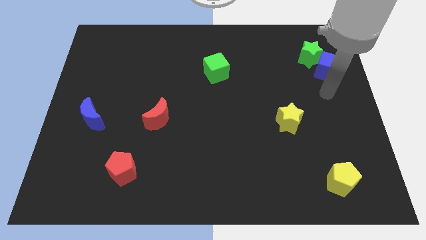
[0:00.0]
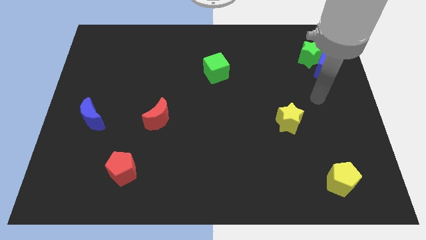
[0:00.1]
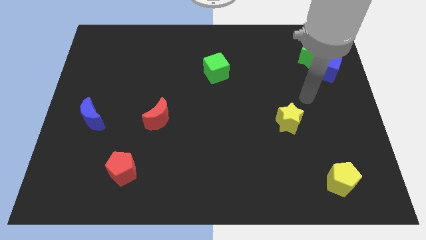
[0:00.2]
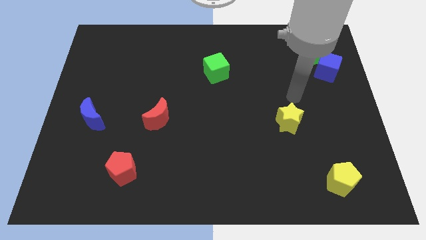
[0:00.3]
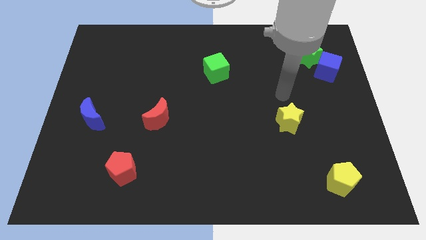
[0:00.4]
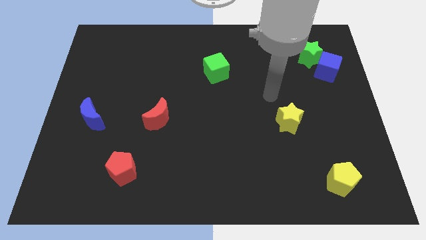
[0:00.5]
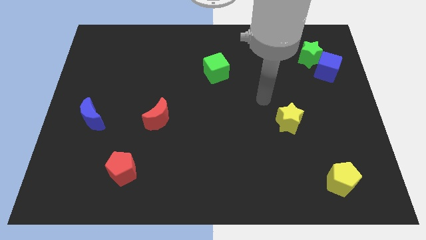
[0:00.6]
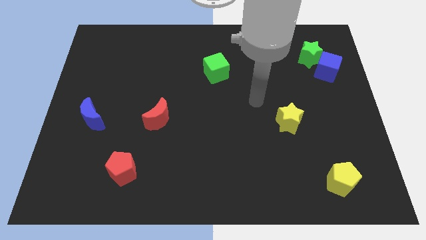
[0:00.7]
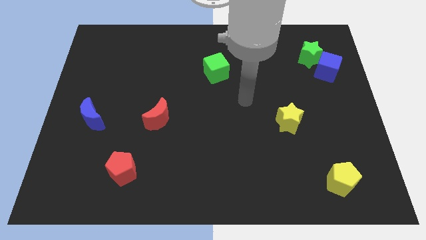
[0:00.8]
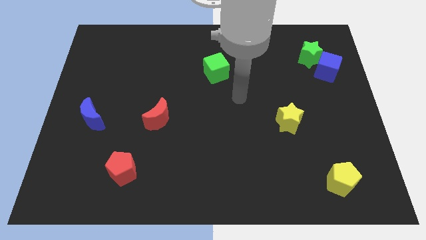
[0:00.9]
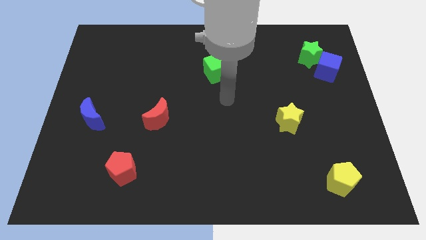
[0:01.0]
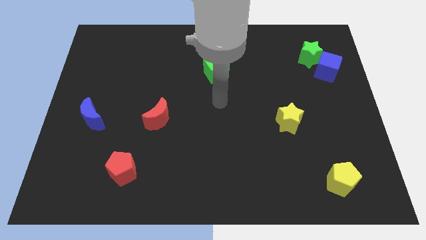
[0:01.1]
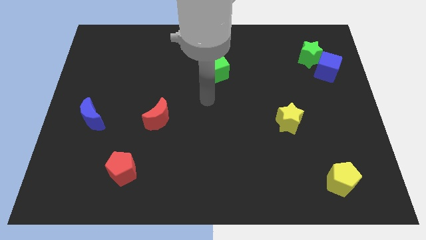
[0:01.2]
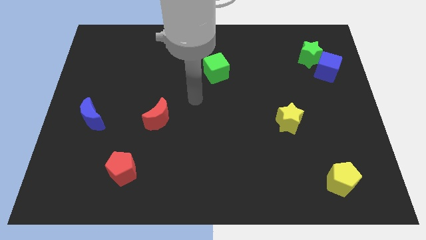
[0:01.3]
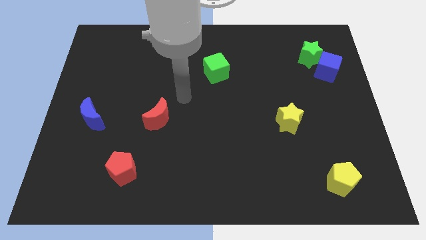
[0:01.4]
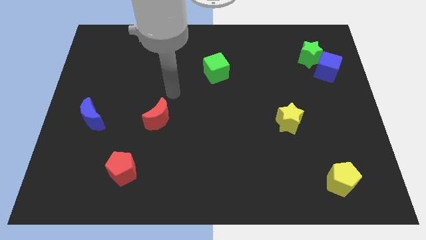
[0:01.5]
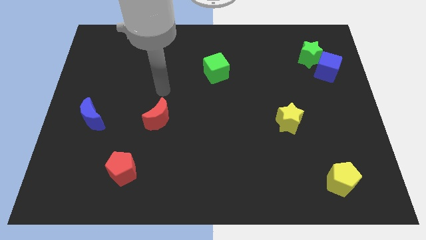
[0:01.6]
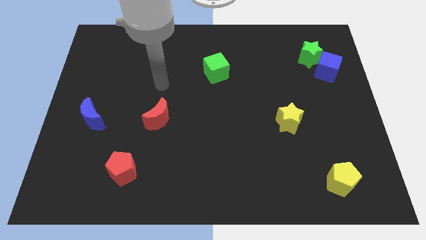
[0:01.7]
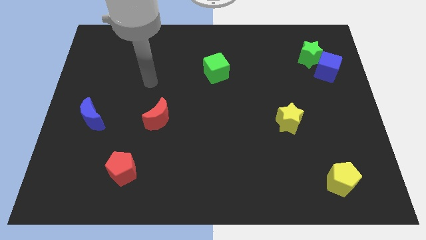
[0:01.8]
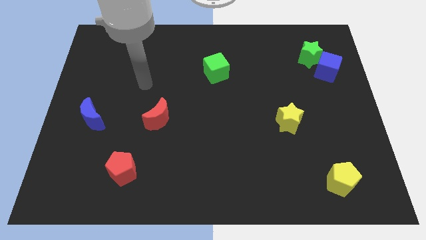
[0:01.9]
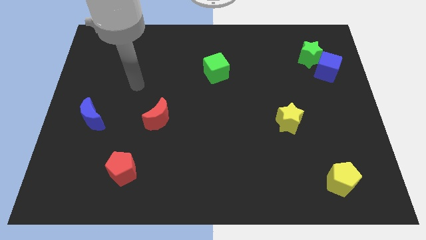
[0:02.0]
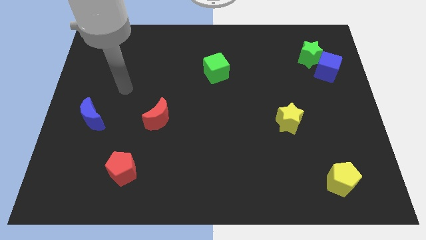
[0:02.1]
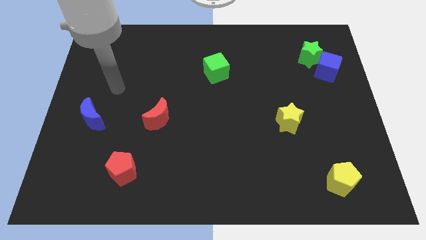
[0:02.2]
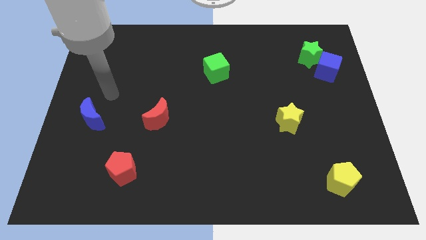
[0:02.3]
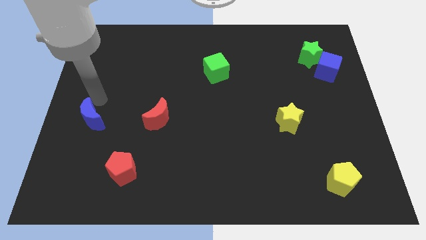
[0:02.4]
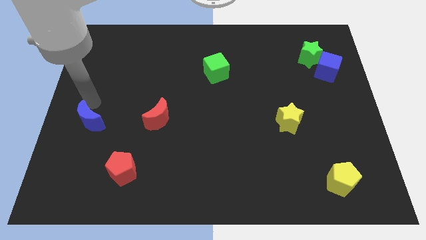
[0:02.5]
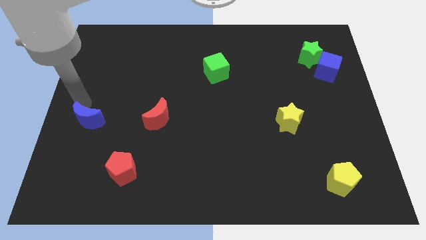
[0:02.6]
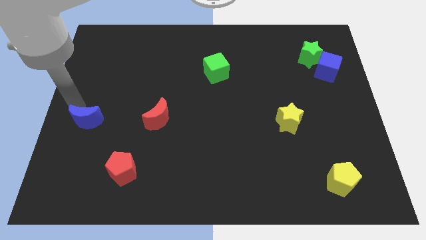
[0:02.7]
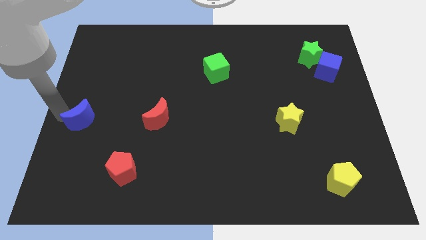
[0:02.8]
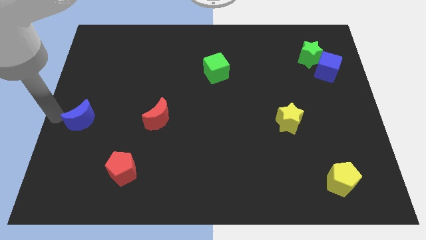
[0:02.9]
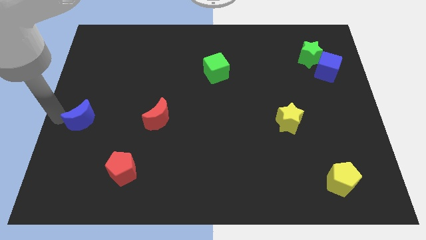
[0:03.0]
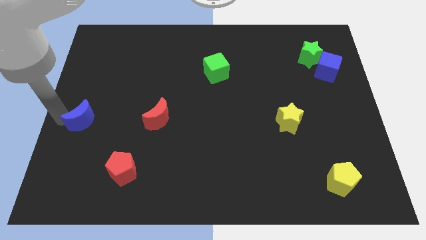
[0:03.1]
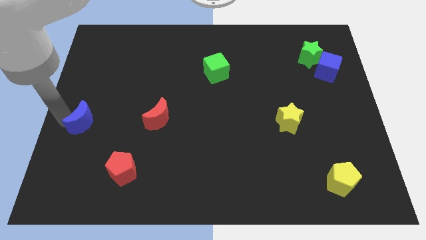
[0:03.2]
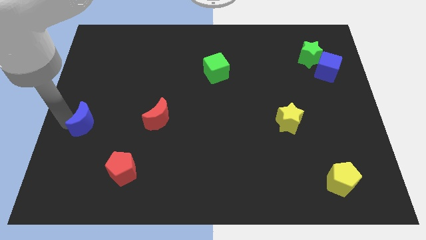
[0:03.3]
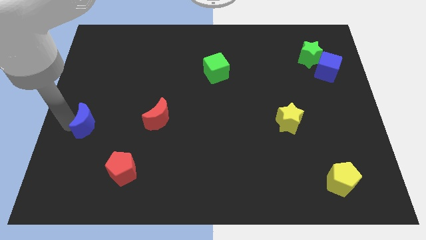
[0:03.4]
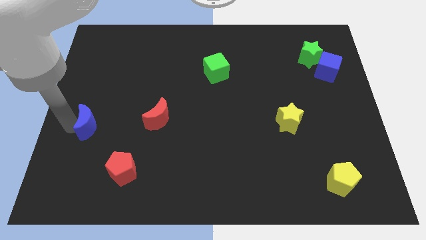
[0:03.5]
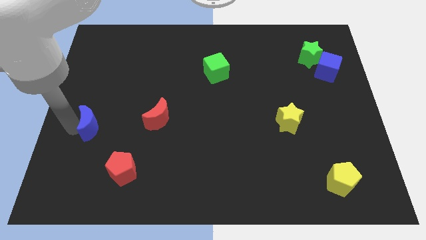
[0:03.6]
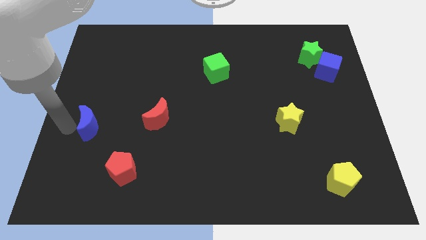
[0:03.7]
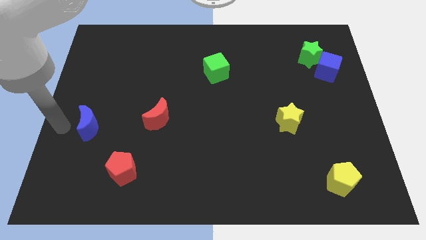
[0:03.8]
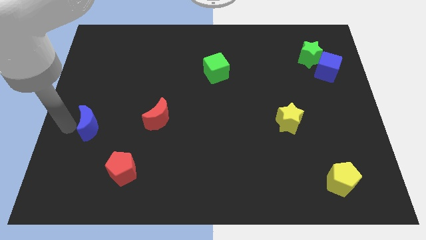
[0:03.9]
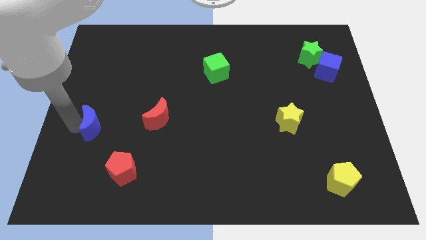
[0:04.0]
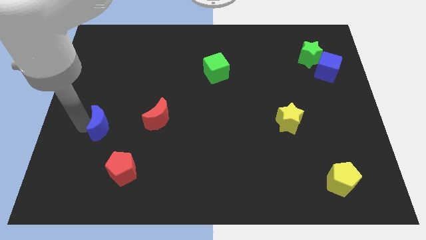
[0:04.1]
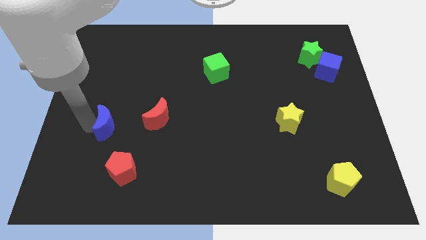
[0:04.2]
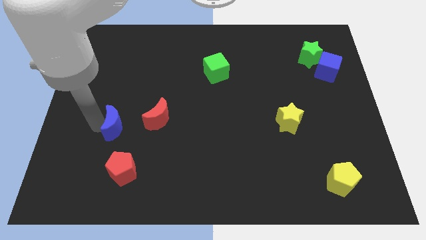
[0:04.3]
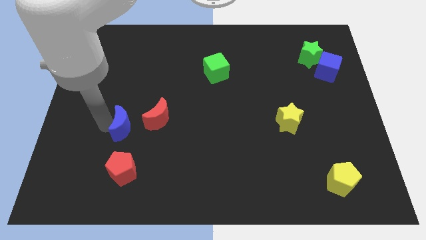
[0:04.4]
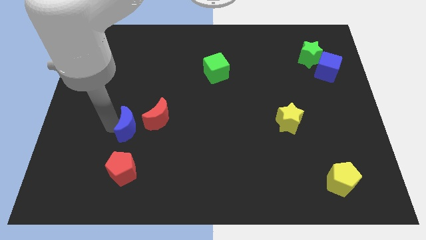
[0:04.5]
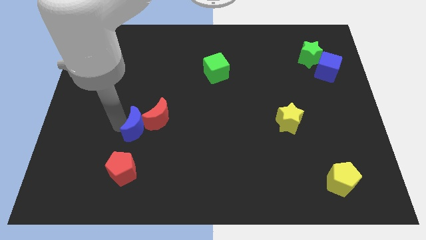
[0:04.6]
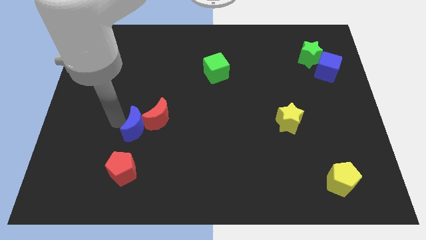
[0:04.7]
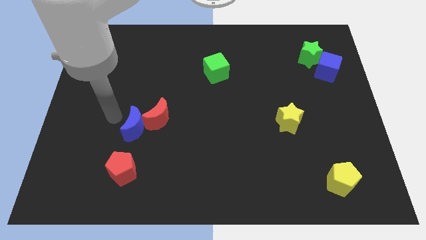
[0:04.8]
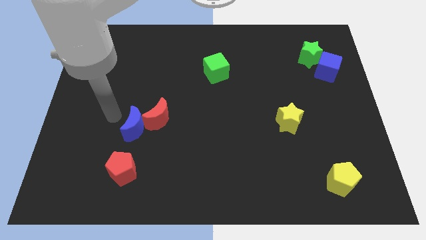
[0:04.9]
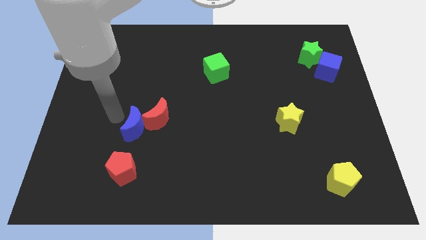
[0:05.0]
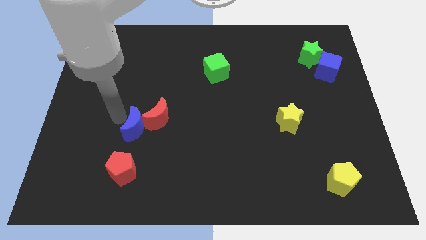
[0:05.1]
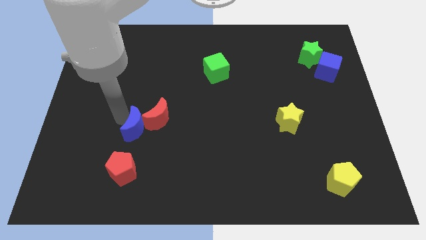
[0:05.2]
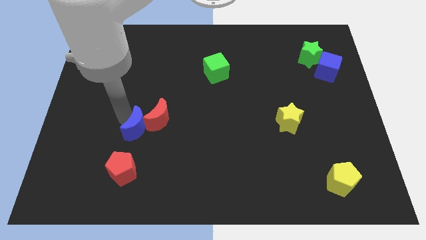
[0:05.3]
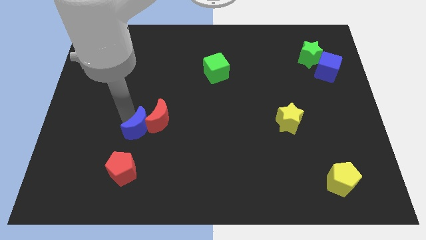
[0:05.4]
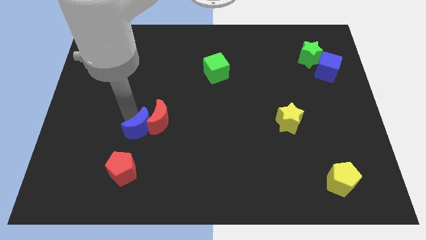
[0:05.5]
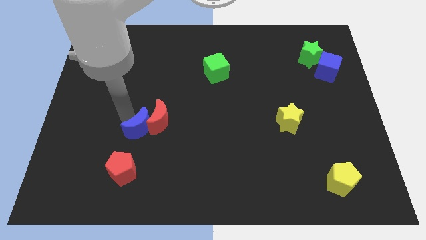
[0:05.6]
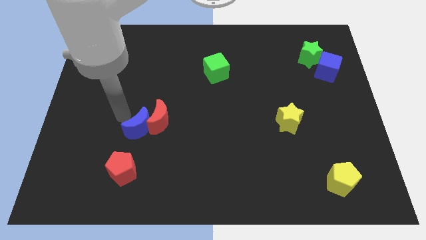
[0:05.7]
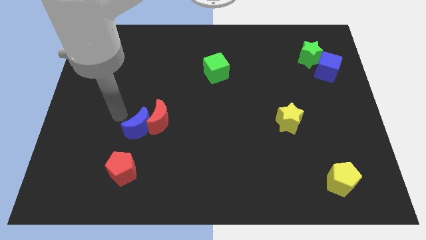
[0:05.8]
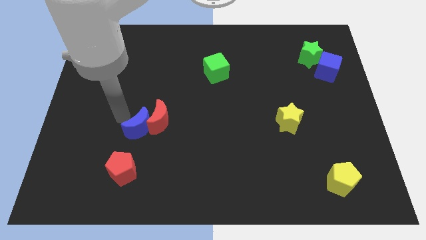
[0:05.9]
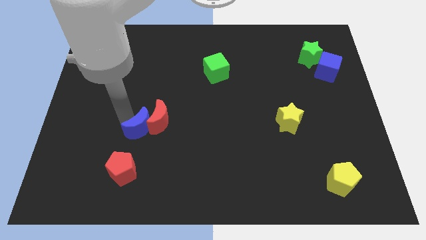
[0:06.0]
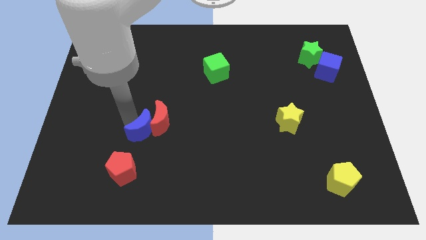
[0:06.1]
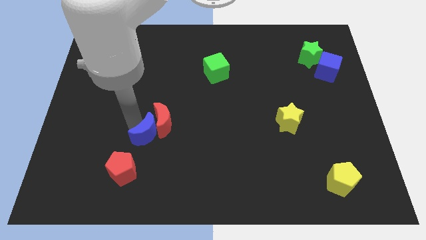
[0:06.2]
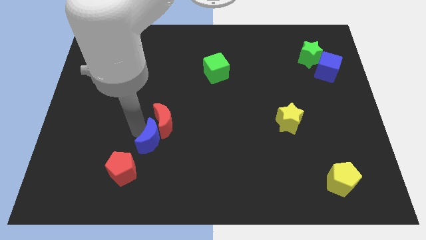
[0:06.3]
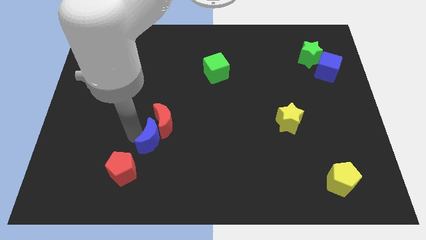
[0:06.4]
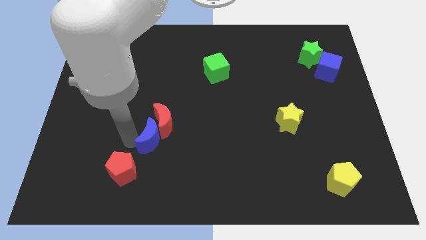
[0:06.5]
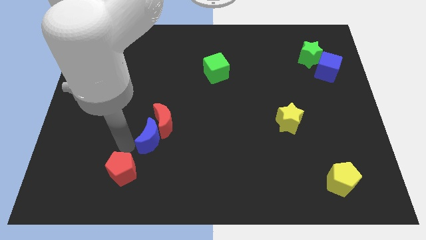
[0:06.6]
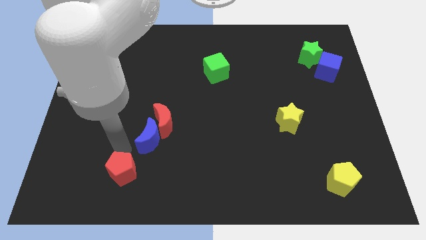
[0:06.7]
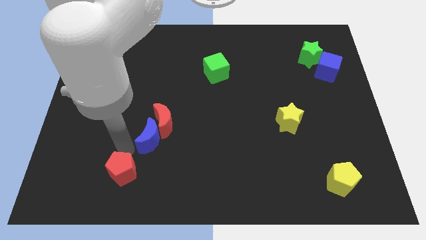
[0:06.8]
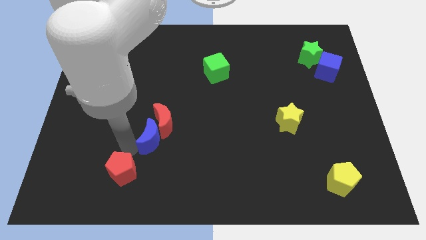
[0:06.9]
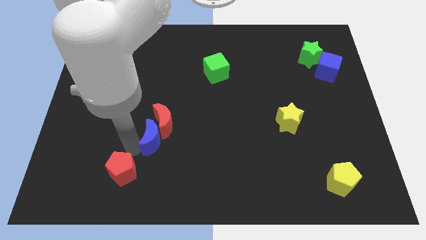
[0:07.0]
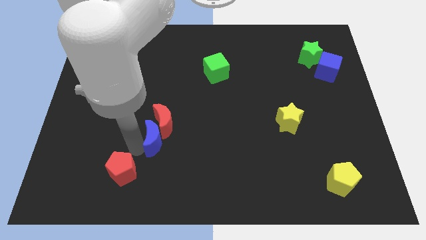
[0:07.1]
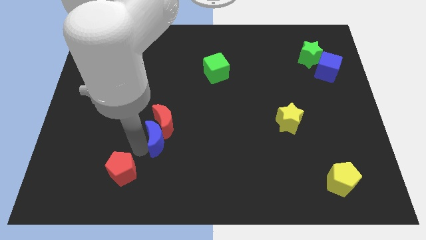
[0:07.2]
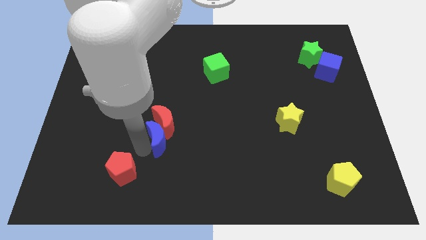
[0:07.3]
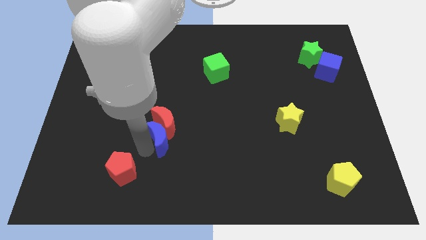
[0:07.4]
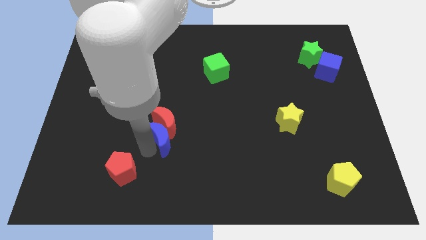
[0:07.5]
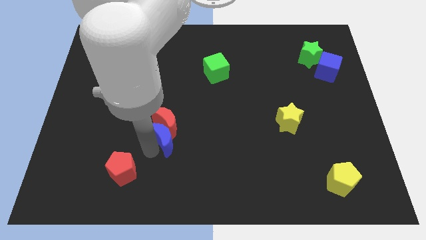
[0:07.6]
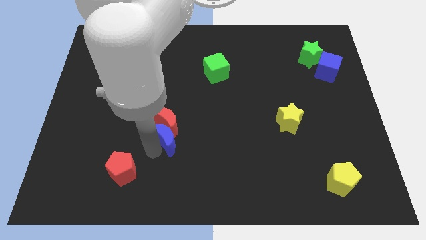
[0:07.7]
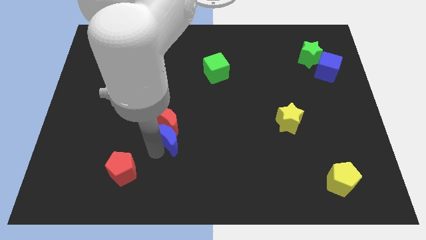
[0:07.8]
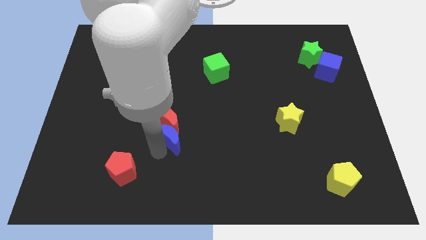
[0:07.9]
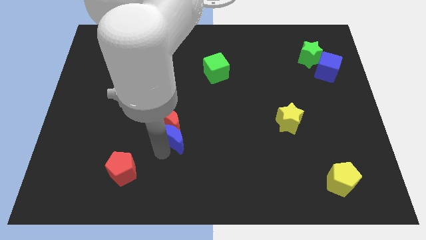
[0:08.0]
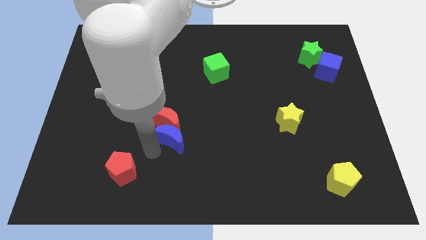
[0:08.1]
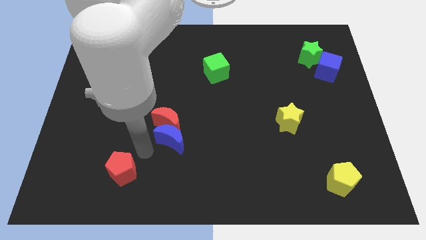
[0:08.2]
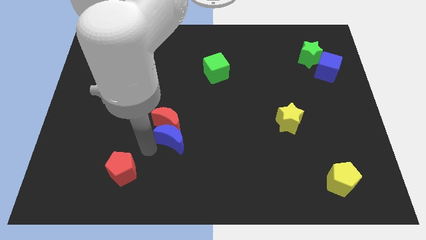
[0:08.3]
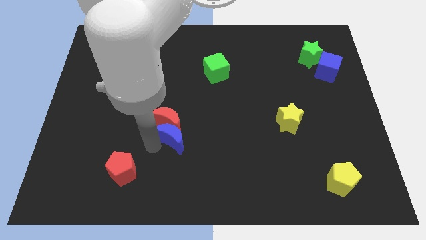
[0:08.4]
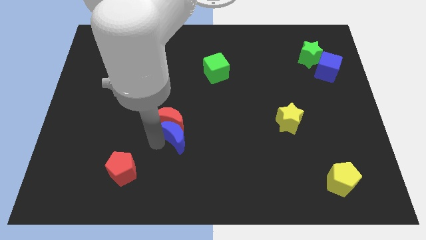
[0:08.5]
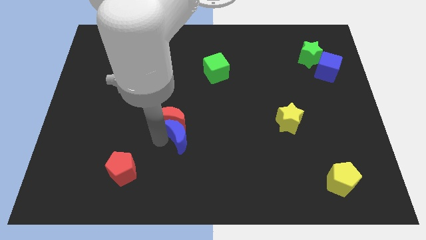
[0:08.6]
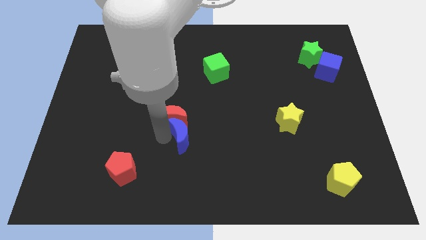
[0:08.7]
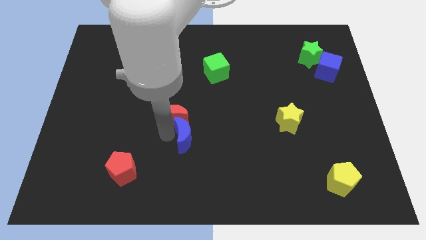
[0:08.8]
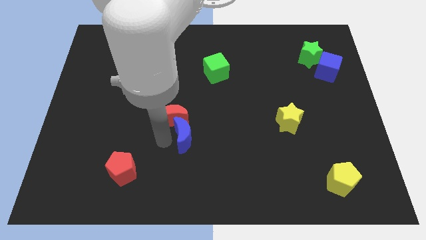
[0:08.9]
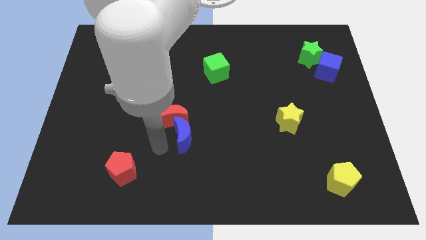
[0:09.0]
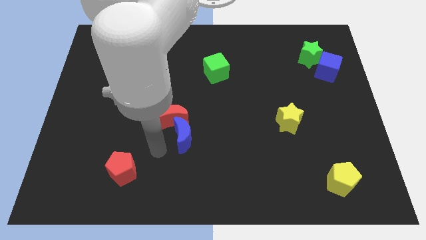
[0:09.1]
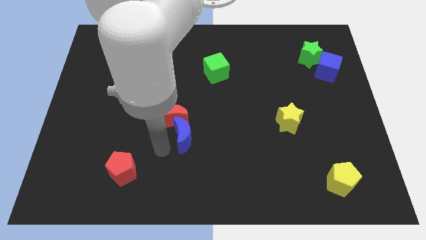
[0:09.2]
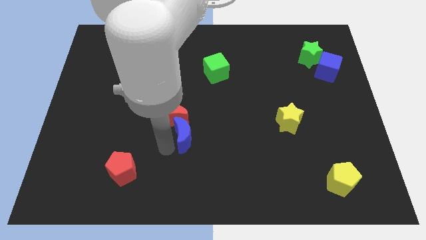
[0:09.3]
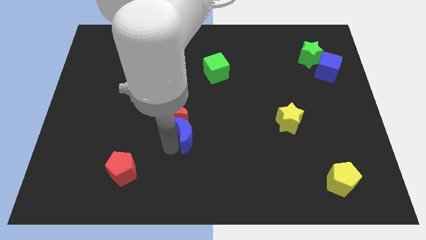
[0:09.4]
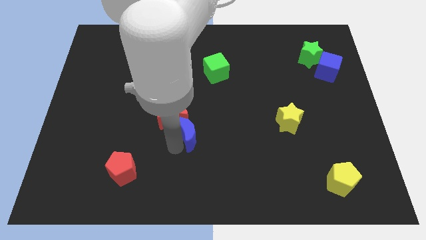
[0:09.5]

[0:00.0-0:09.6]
put the blue moon just right of the red moon
